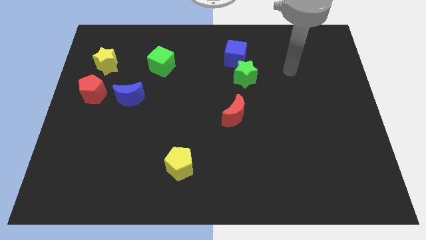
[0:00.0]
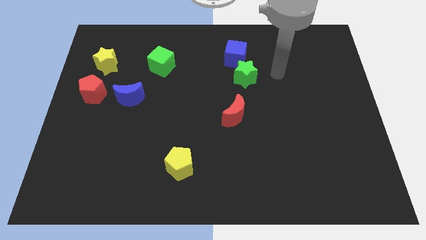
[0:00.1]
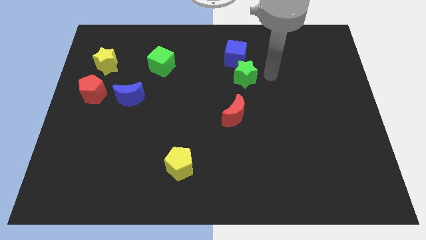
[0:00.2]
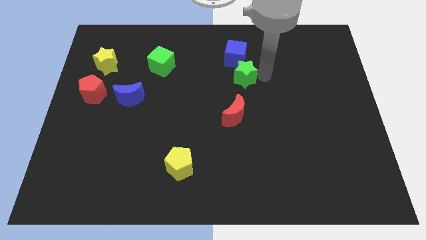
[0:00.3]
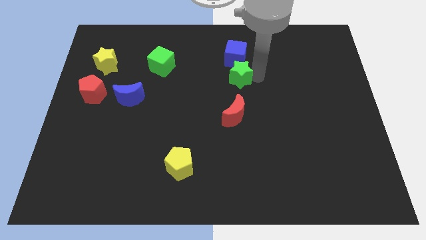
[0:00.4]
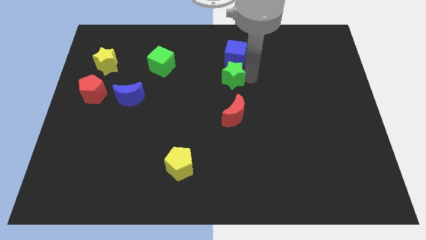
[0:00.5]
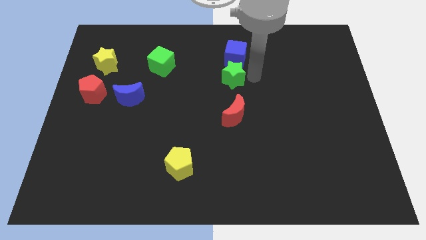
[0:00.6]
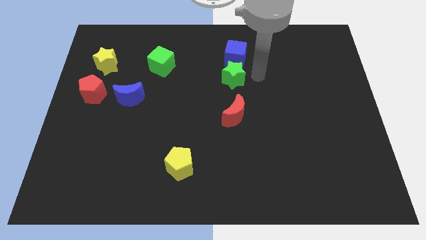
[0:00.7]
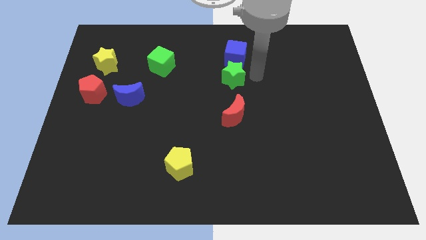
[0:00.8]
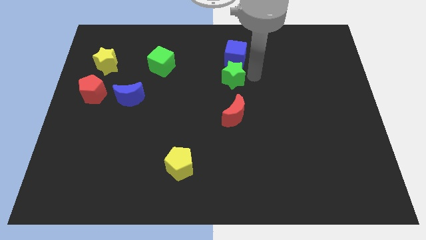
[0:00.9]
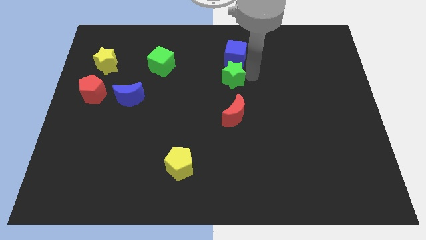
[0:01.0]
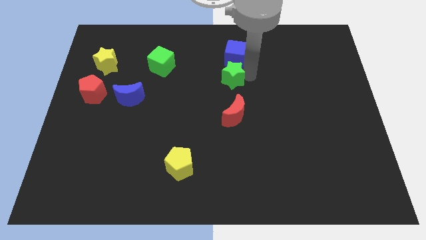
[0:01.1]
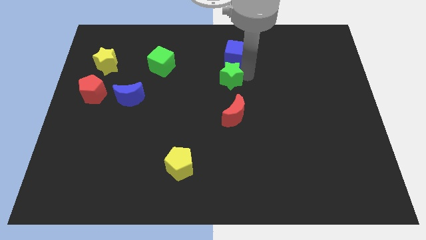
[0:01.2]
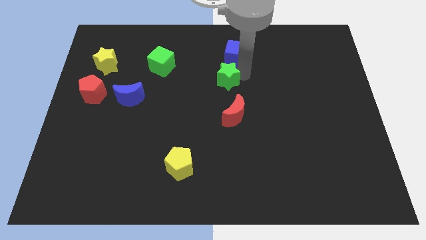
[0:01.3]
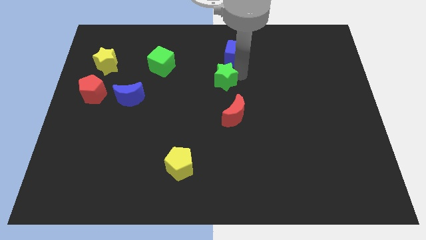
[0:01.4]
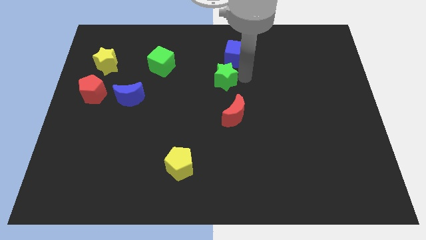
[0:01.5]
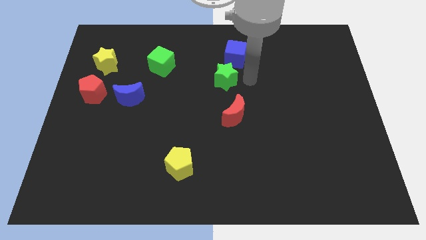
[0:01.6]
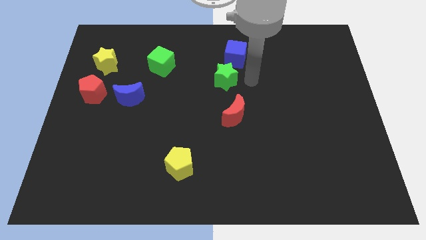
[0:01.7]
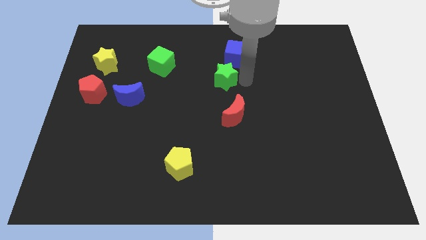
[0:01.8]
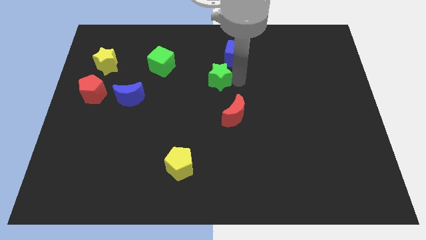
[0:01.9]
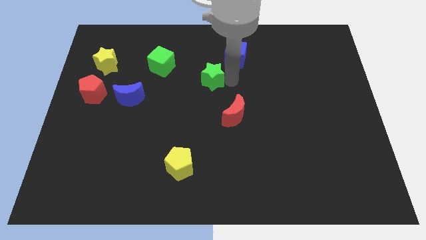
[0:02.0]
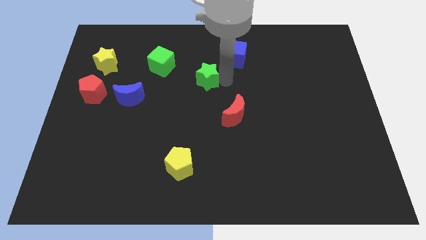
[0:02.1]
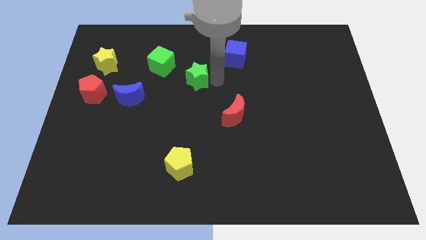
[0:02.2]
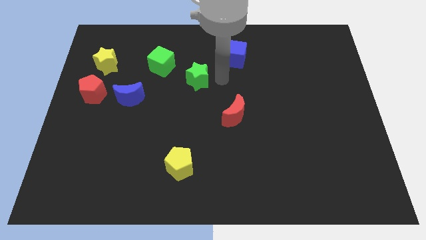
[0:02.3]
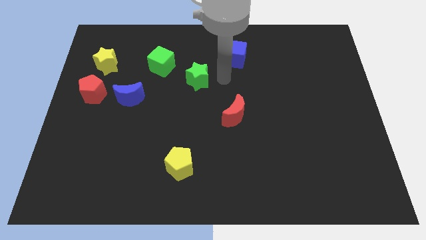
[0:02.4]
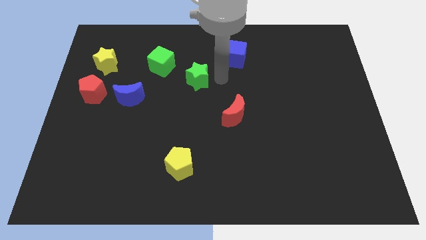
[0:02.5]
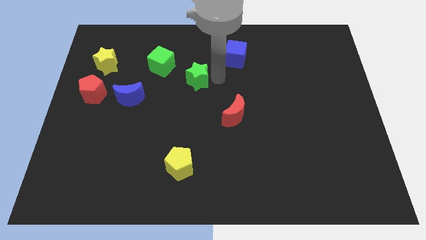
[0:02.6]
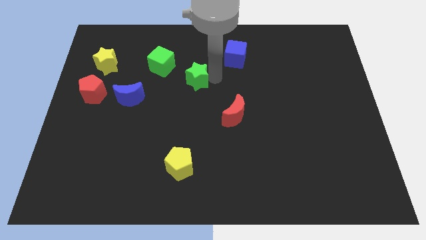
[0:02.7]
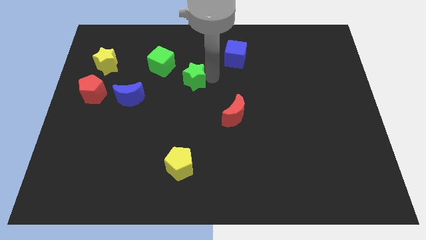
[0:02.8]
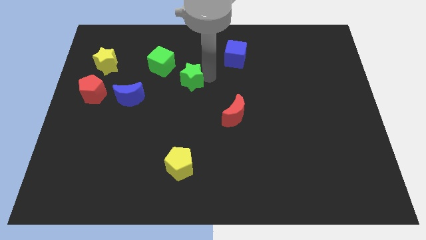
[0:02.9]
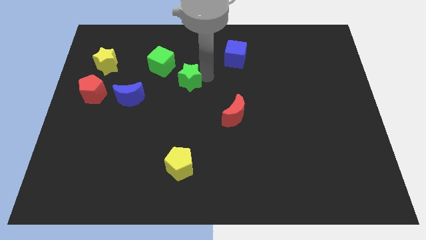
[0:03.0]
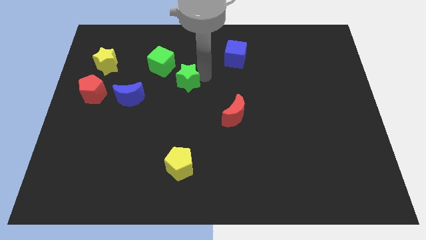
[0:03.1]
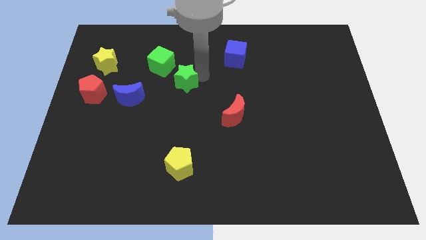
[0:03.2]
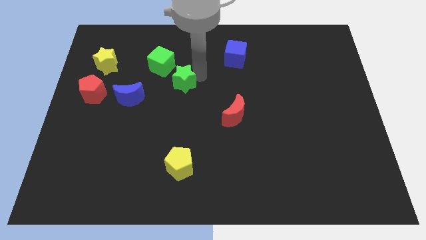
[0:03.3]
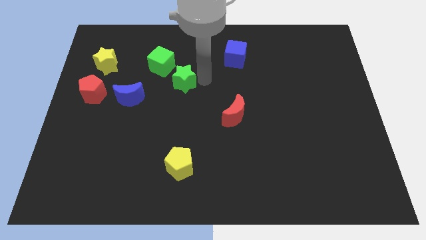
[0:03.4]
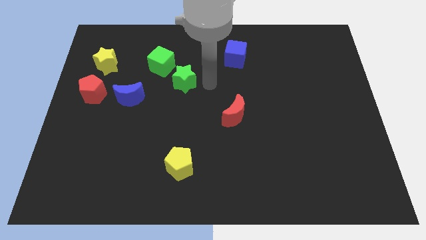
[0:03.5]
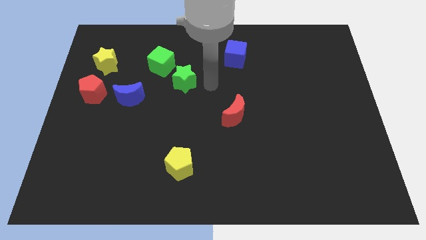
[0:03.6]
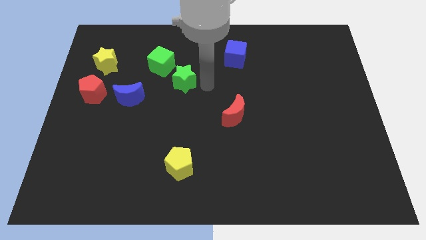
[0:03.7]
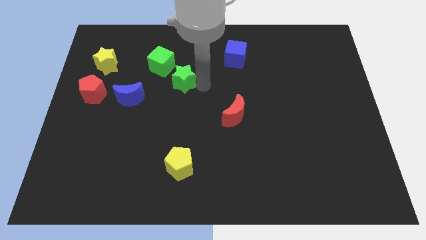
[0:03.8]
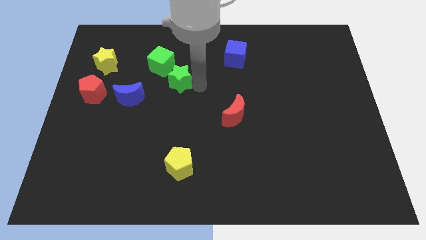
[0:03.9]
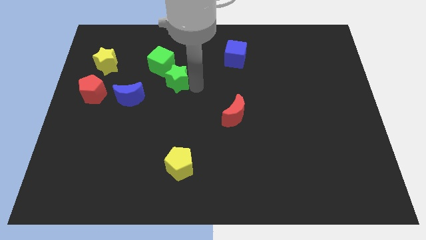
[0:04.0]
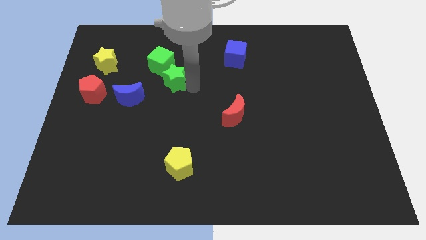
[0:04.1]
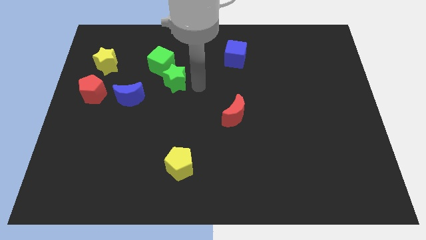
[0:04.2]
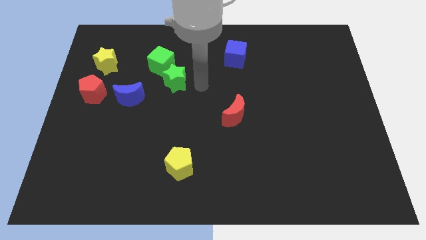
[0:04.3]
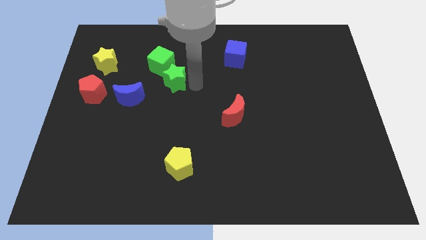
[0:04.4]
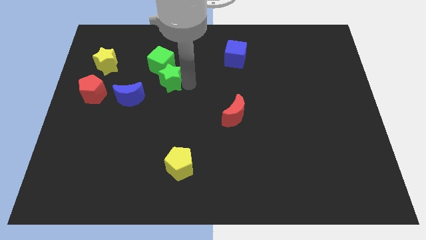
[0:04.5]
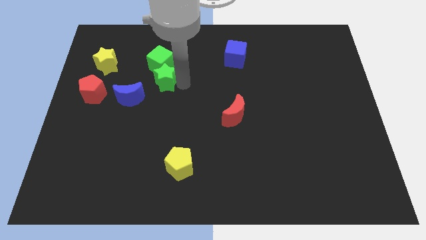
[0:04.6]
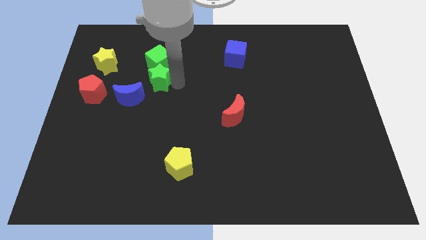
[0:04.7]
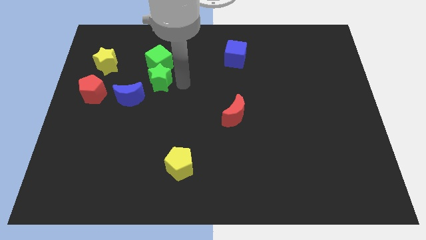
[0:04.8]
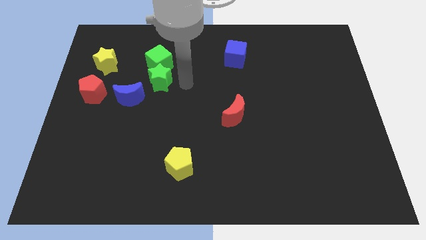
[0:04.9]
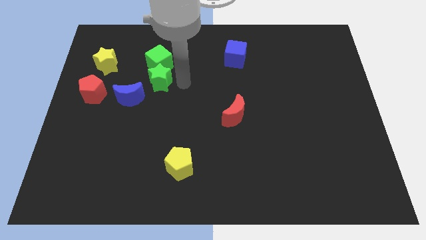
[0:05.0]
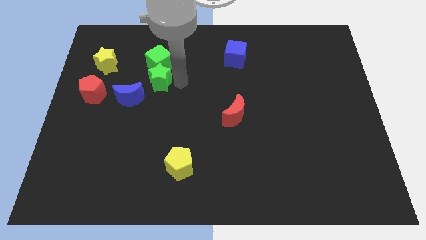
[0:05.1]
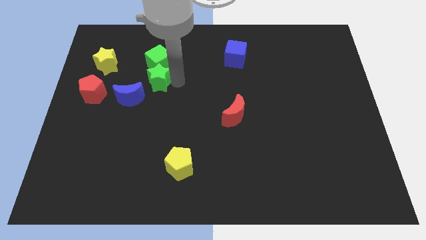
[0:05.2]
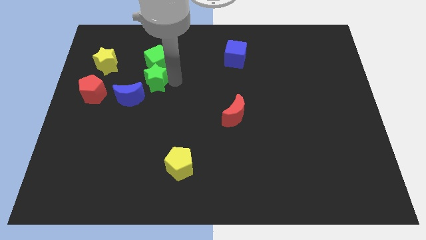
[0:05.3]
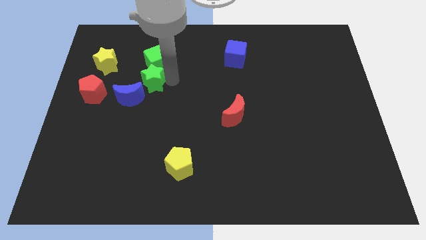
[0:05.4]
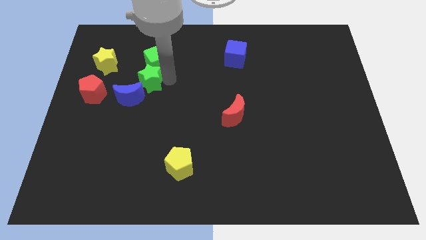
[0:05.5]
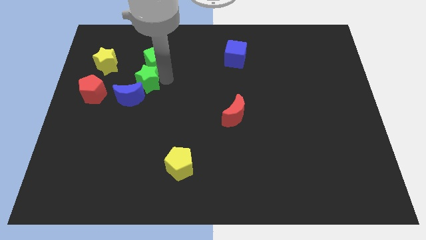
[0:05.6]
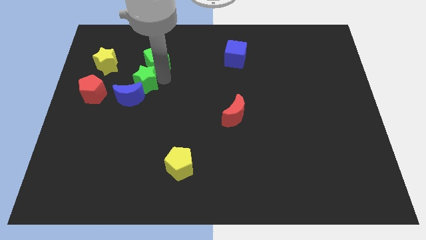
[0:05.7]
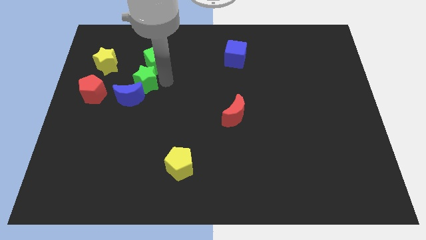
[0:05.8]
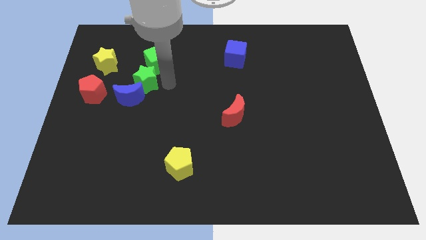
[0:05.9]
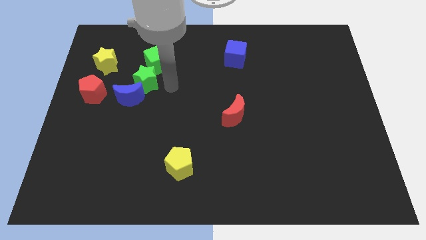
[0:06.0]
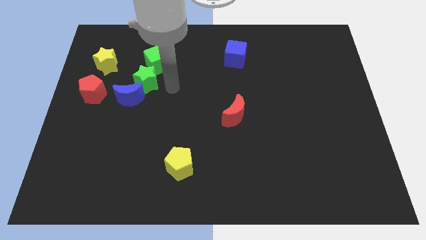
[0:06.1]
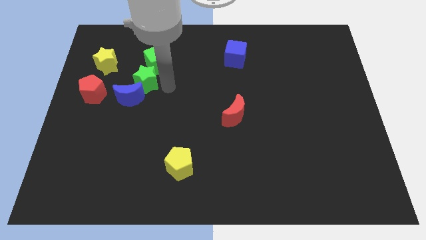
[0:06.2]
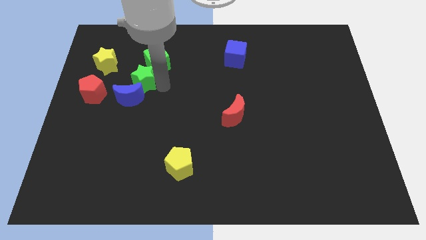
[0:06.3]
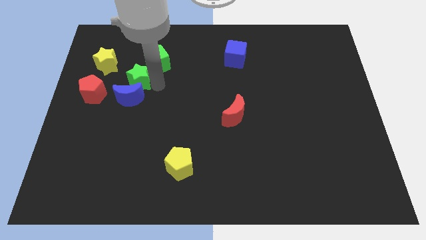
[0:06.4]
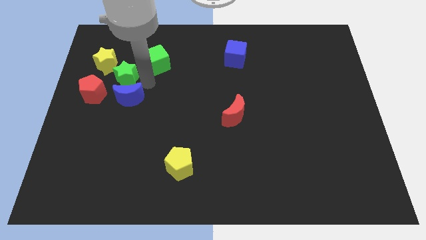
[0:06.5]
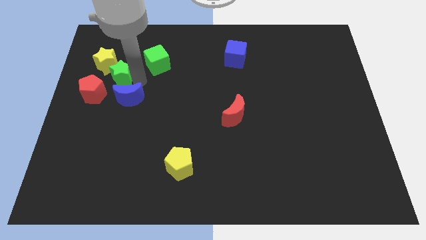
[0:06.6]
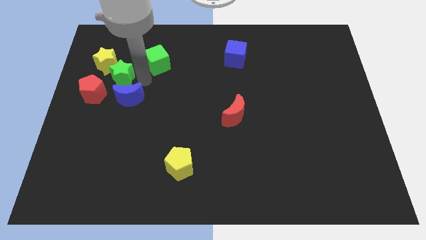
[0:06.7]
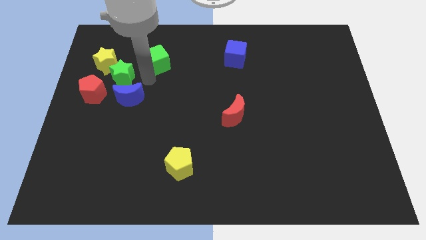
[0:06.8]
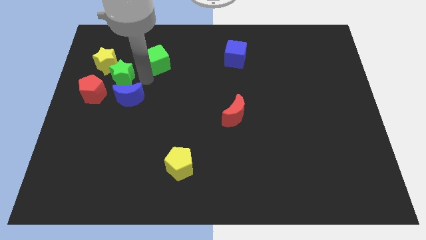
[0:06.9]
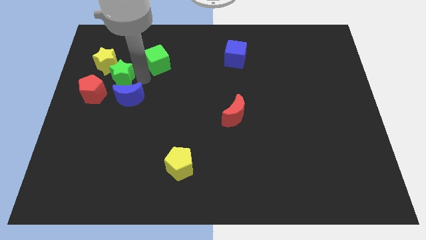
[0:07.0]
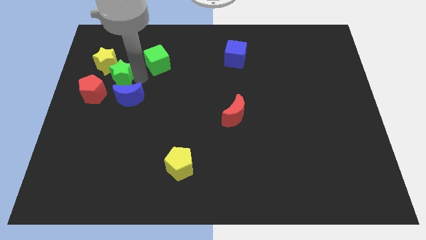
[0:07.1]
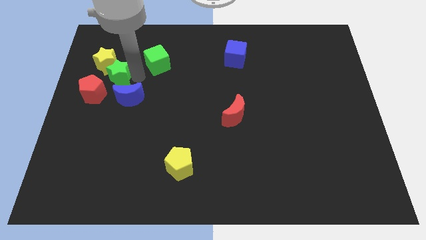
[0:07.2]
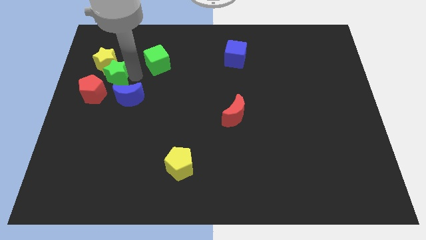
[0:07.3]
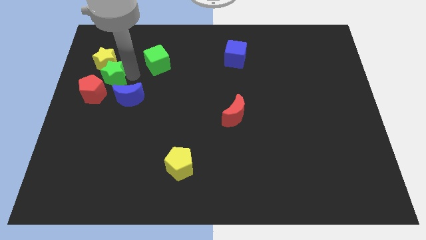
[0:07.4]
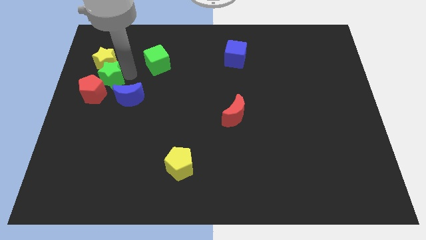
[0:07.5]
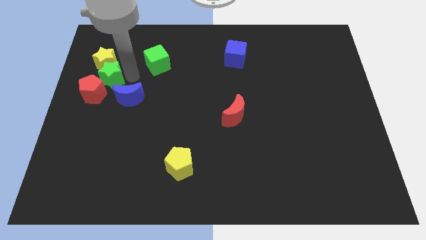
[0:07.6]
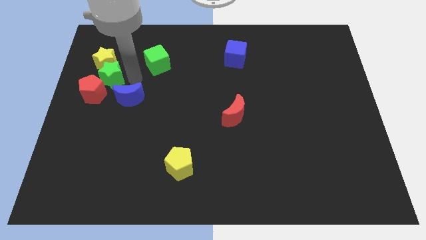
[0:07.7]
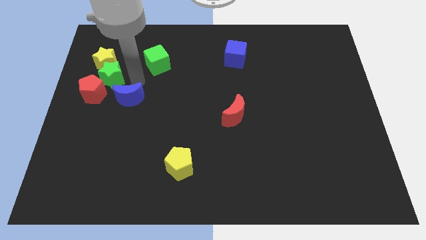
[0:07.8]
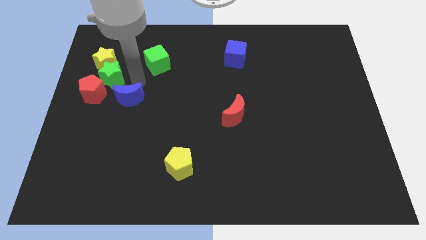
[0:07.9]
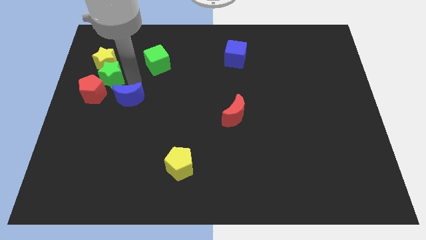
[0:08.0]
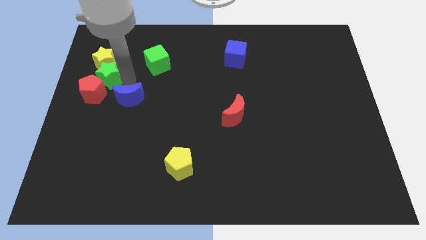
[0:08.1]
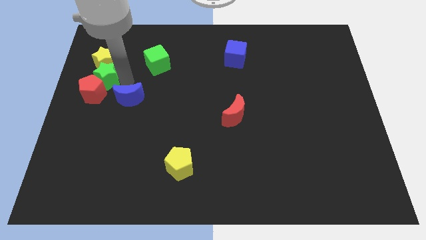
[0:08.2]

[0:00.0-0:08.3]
slide the green star to the left side
